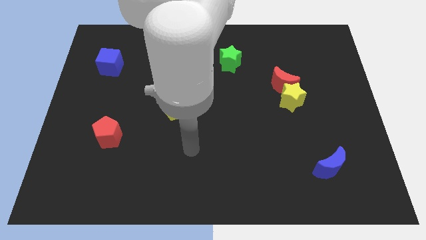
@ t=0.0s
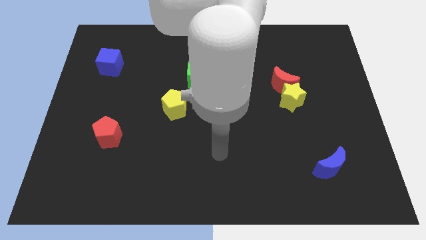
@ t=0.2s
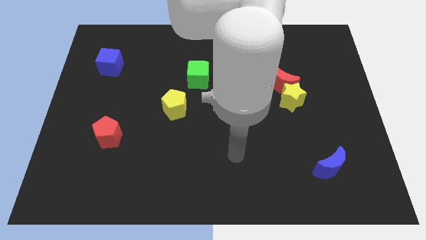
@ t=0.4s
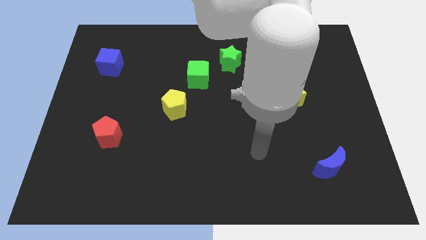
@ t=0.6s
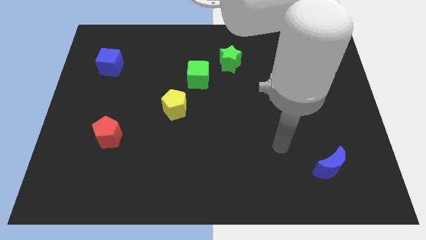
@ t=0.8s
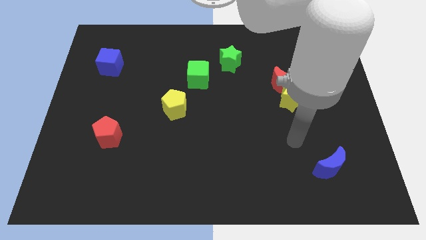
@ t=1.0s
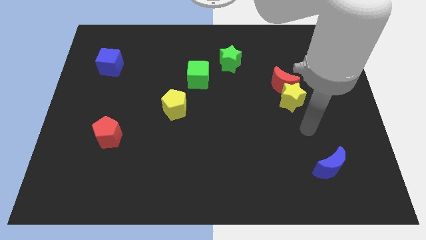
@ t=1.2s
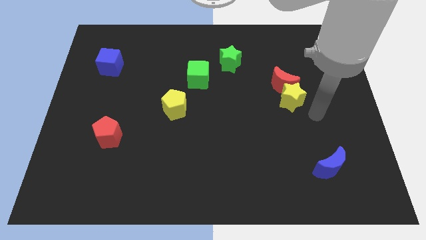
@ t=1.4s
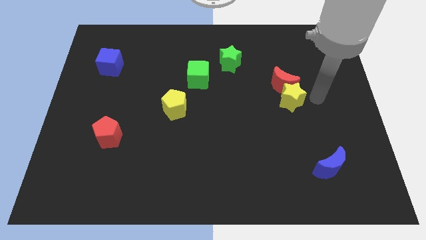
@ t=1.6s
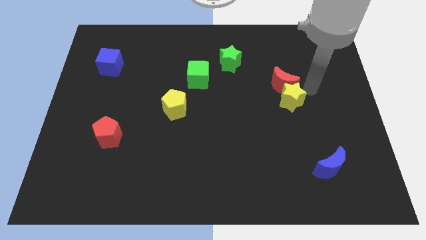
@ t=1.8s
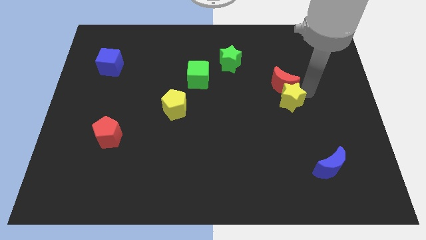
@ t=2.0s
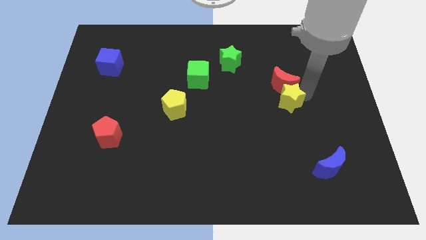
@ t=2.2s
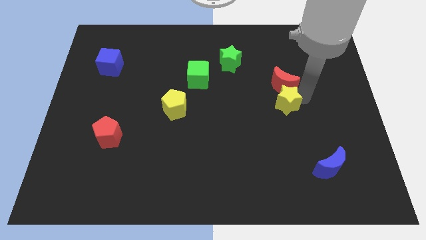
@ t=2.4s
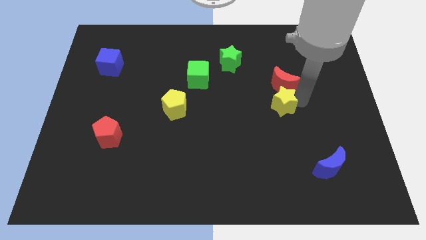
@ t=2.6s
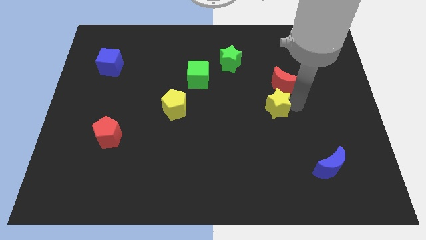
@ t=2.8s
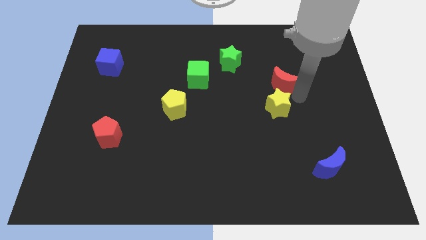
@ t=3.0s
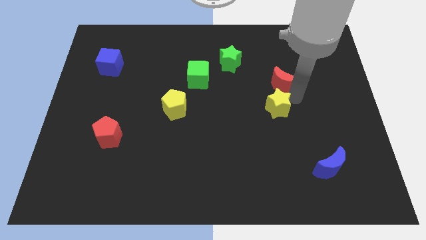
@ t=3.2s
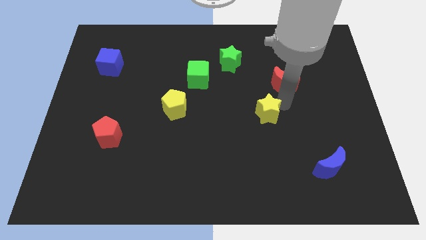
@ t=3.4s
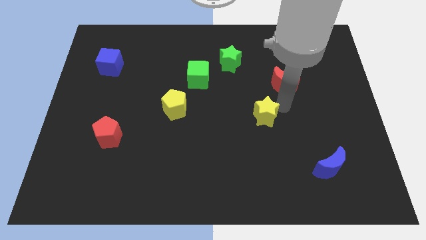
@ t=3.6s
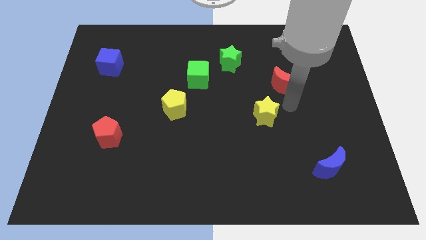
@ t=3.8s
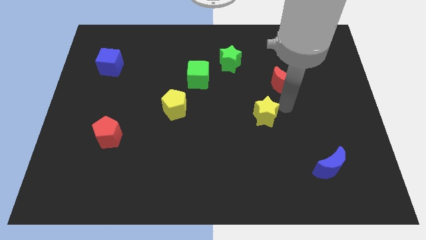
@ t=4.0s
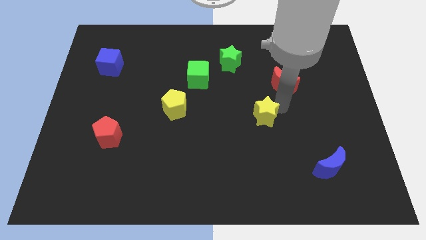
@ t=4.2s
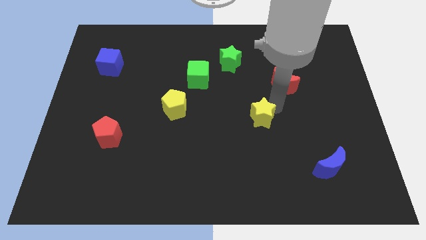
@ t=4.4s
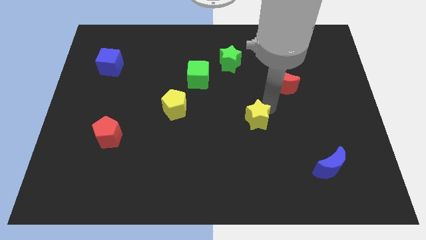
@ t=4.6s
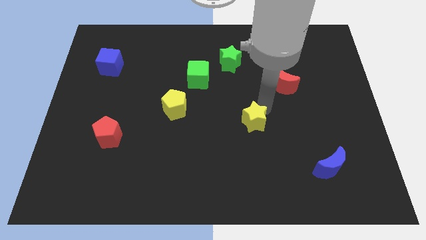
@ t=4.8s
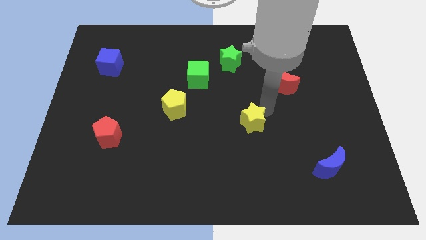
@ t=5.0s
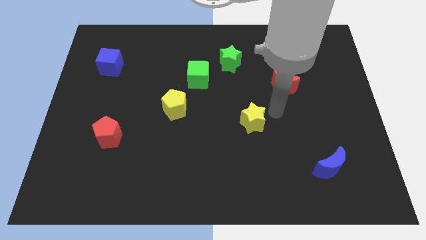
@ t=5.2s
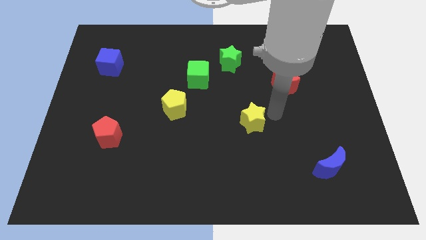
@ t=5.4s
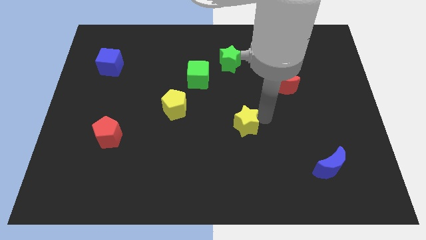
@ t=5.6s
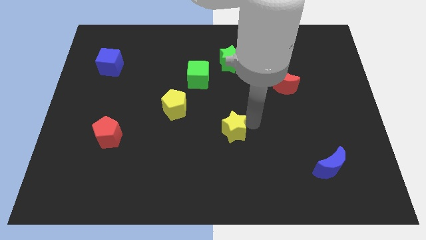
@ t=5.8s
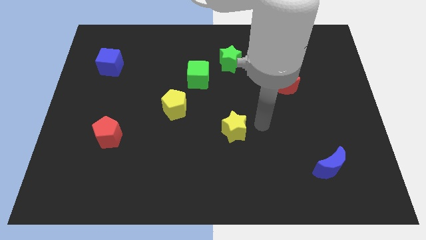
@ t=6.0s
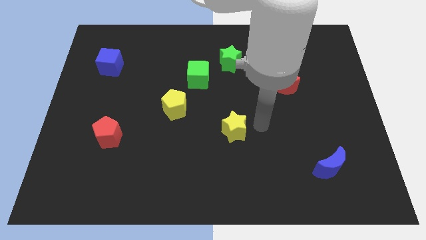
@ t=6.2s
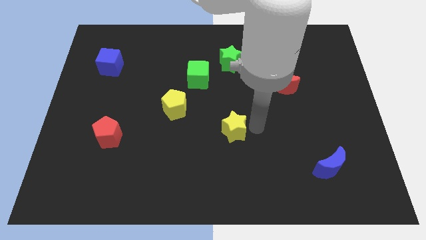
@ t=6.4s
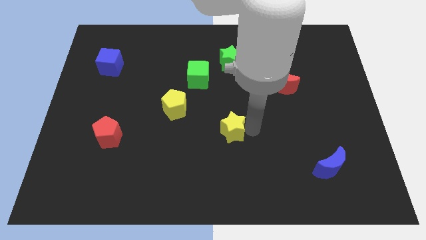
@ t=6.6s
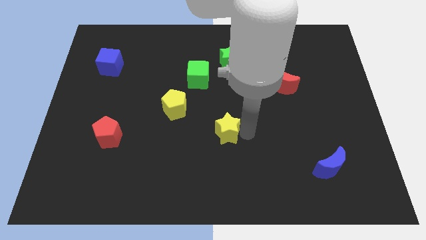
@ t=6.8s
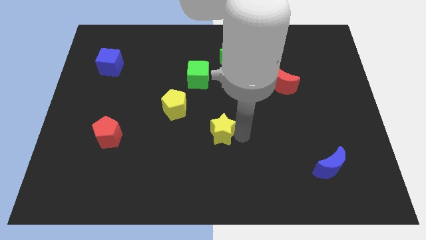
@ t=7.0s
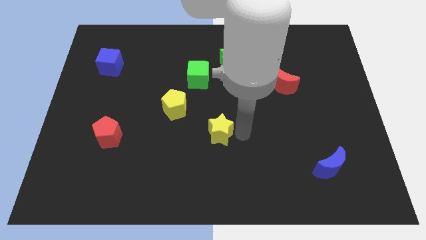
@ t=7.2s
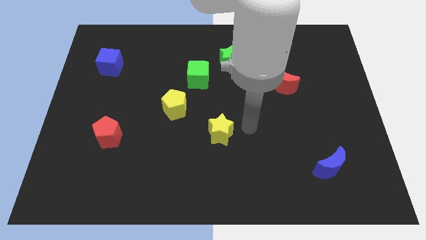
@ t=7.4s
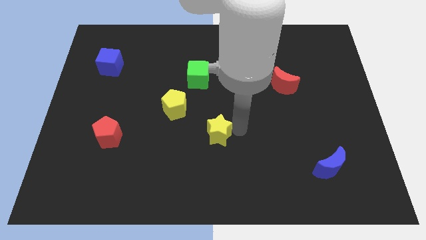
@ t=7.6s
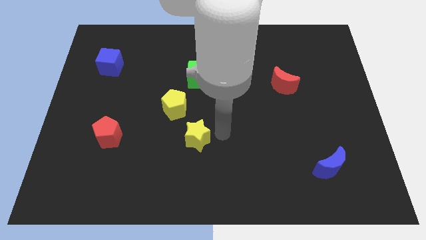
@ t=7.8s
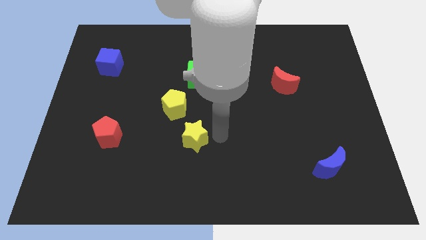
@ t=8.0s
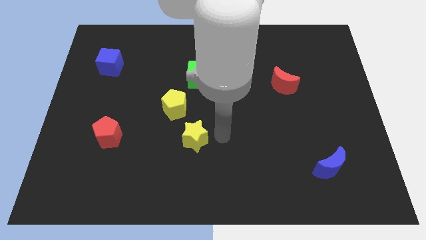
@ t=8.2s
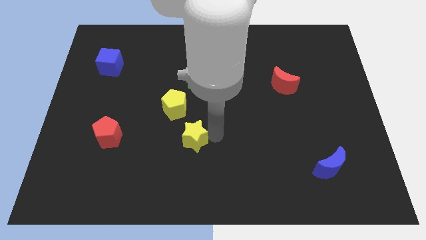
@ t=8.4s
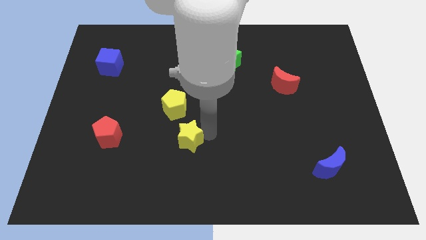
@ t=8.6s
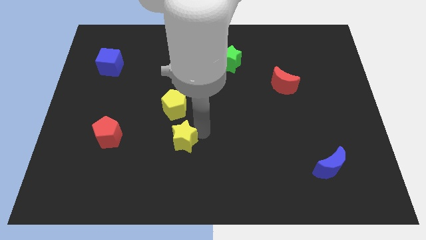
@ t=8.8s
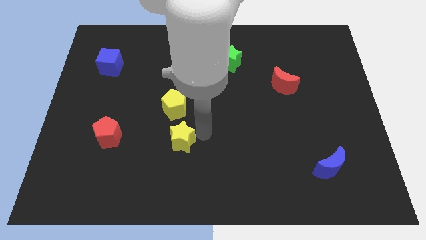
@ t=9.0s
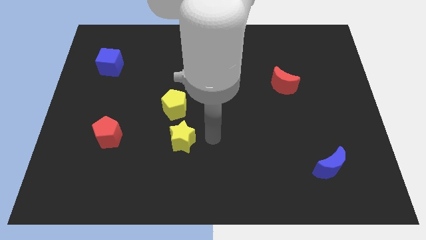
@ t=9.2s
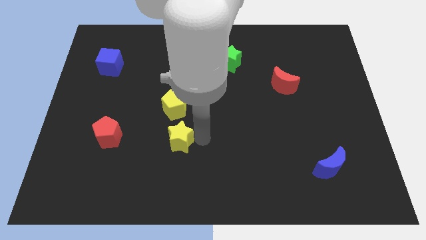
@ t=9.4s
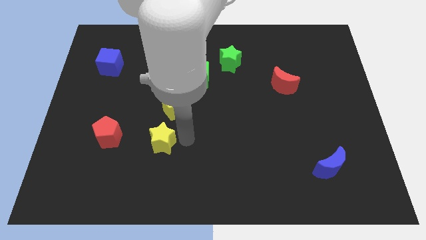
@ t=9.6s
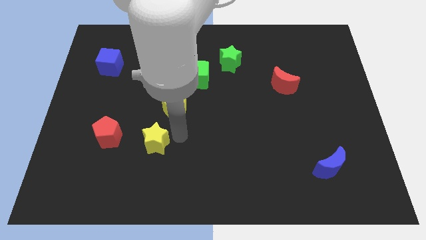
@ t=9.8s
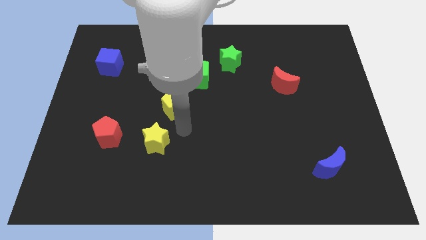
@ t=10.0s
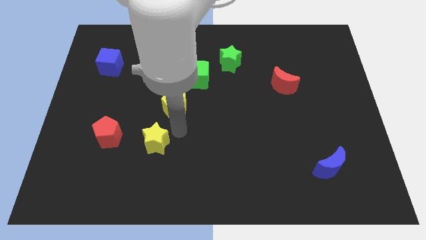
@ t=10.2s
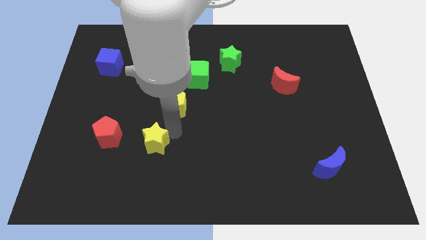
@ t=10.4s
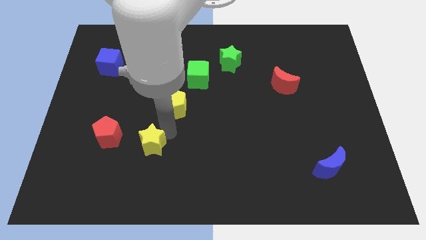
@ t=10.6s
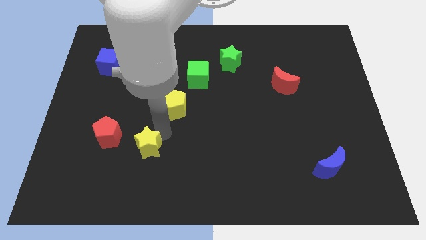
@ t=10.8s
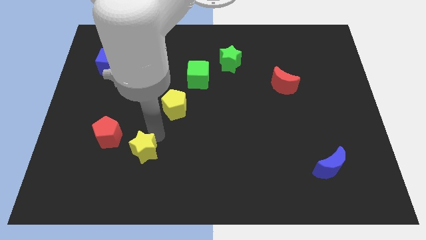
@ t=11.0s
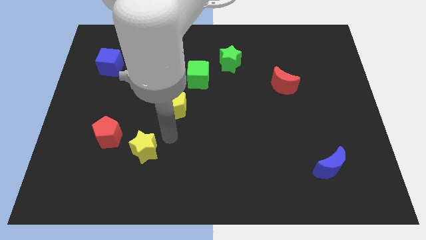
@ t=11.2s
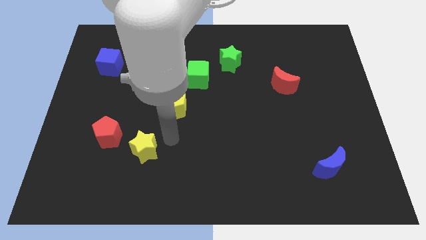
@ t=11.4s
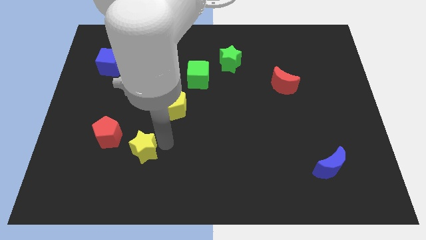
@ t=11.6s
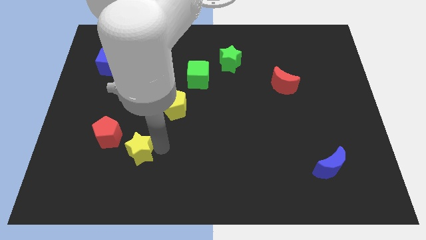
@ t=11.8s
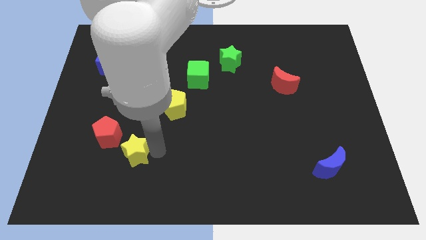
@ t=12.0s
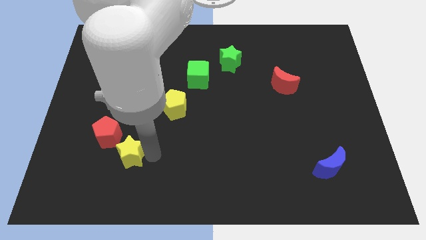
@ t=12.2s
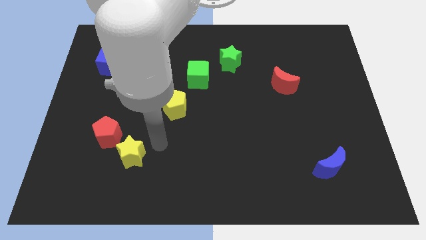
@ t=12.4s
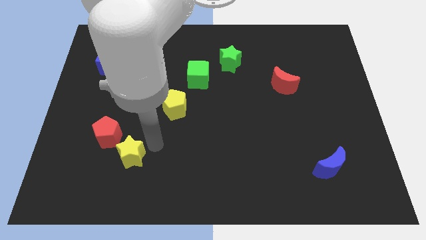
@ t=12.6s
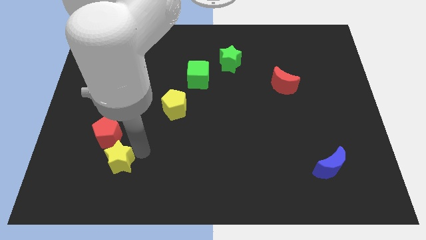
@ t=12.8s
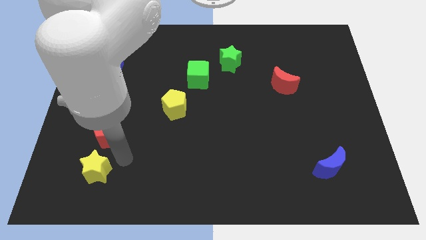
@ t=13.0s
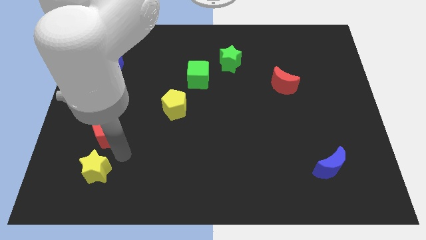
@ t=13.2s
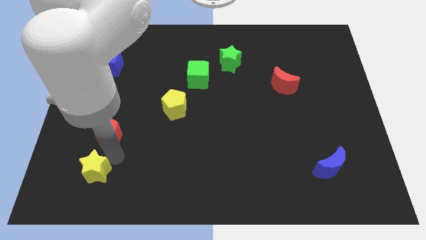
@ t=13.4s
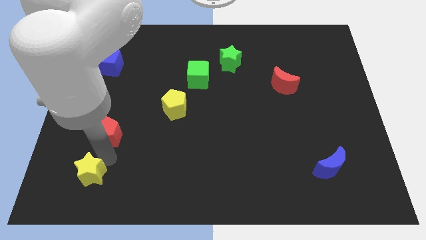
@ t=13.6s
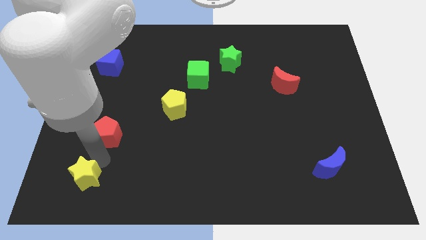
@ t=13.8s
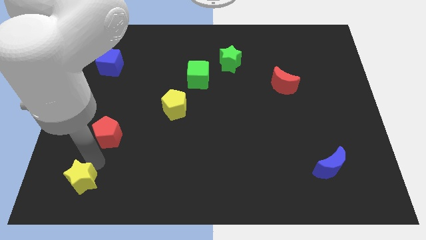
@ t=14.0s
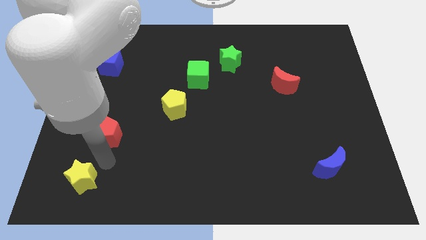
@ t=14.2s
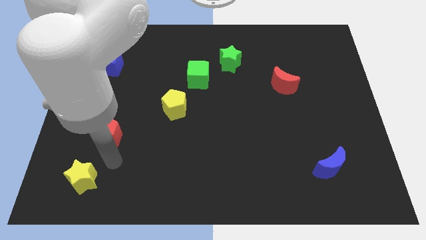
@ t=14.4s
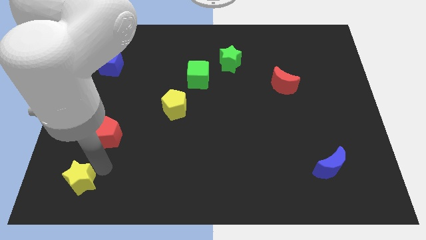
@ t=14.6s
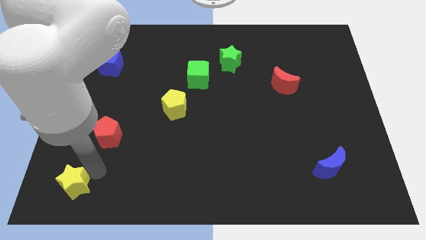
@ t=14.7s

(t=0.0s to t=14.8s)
move the yellow star to the bottom left

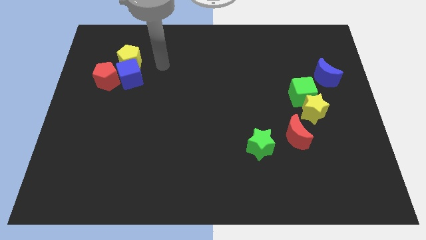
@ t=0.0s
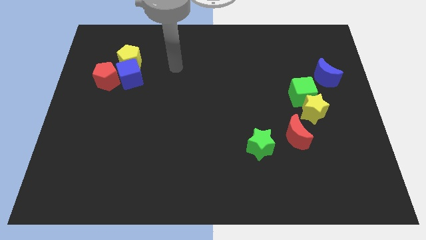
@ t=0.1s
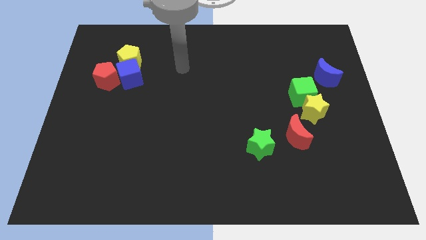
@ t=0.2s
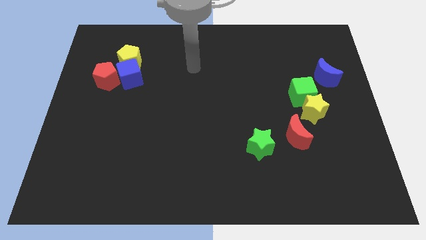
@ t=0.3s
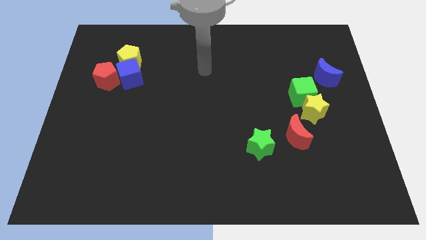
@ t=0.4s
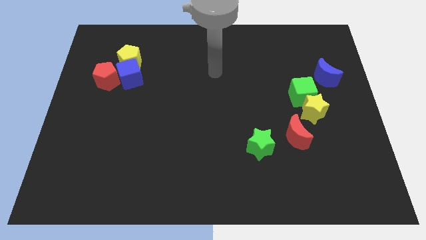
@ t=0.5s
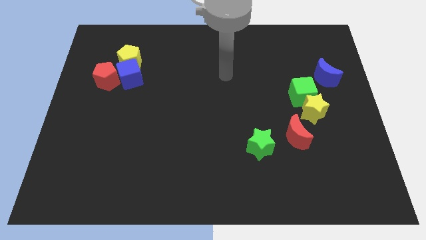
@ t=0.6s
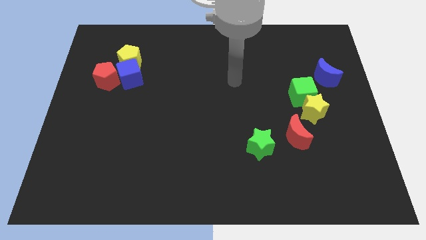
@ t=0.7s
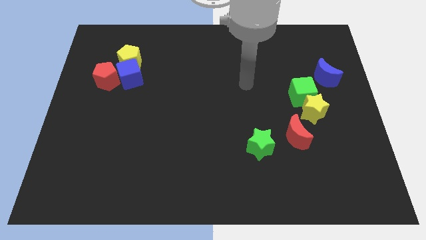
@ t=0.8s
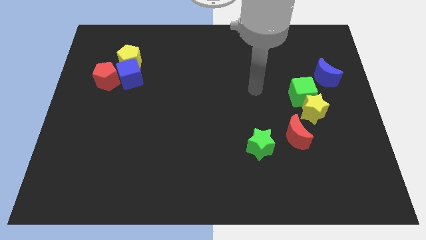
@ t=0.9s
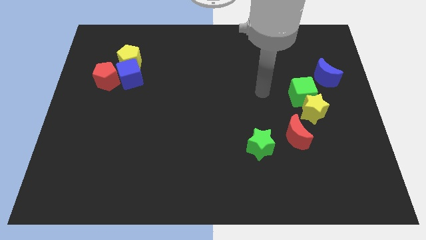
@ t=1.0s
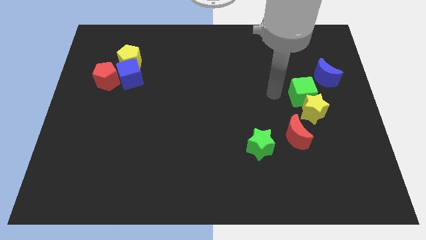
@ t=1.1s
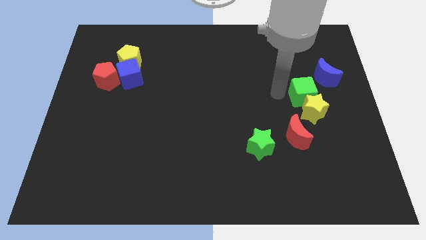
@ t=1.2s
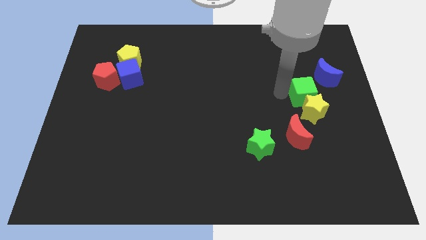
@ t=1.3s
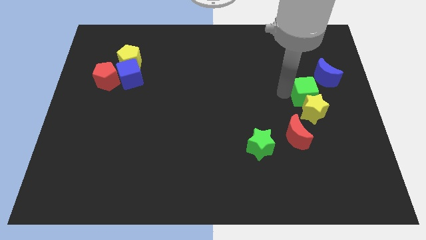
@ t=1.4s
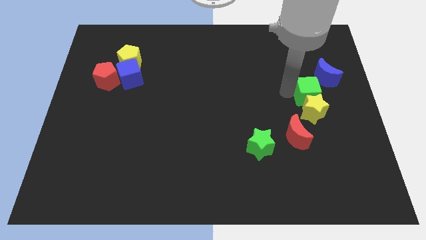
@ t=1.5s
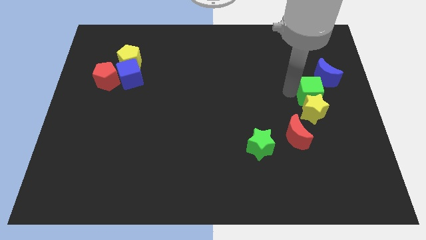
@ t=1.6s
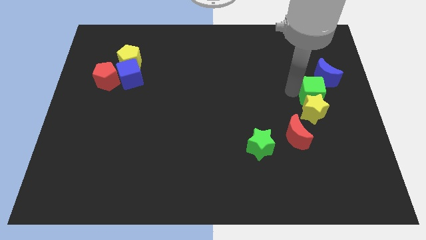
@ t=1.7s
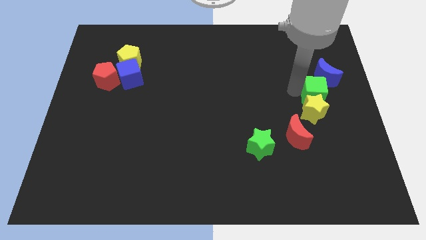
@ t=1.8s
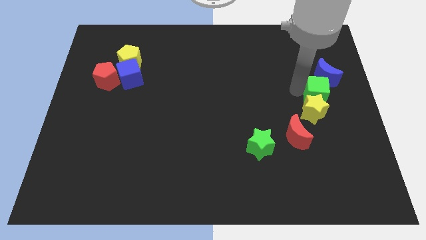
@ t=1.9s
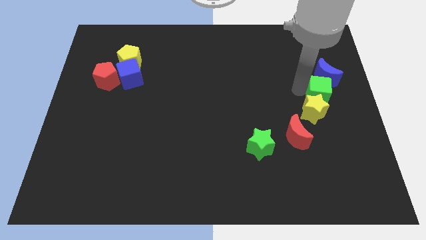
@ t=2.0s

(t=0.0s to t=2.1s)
slide the green cube to the center right
